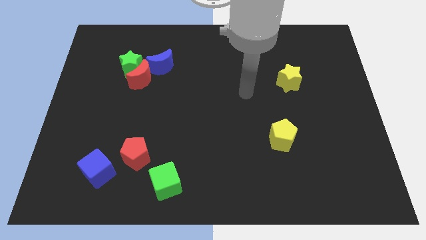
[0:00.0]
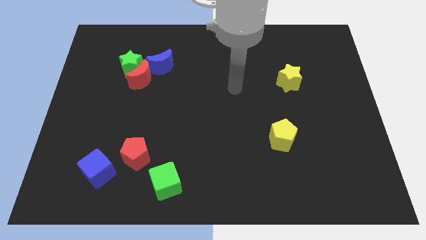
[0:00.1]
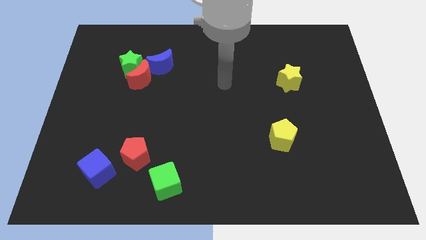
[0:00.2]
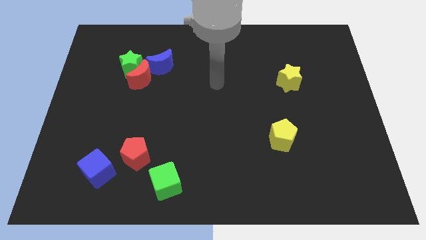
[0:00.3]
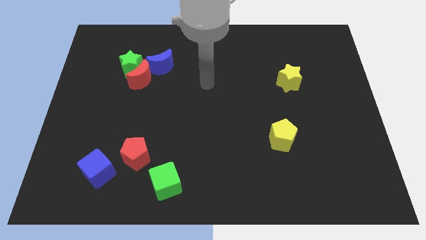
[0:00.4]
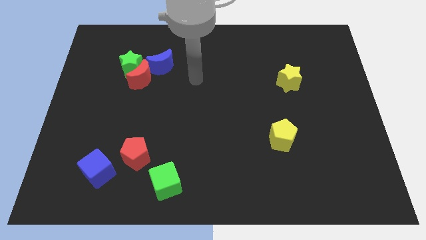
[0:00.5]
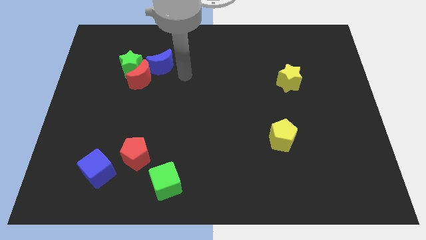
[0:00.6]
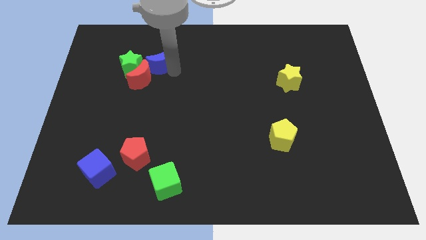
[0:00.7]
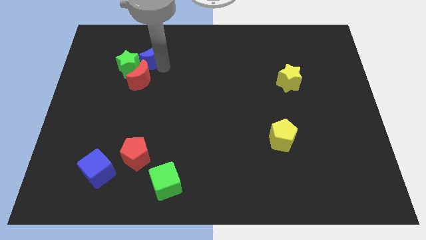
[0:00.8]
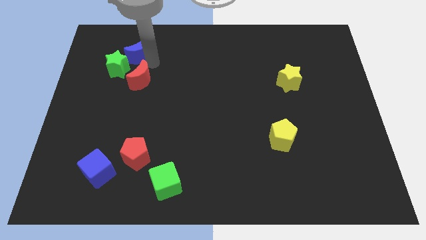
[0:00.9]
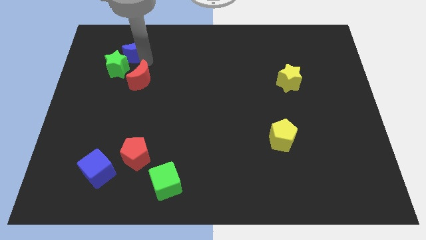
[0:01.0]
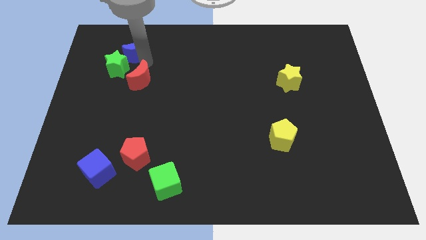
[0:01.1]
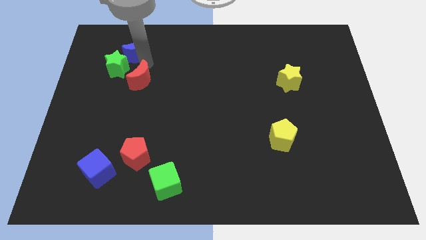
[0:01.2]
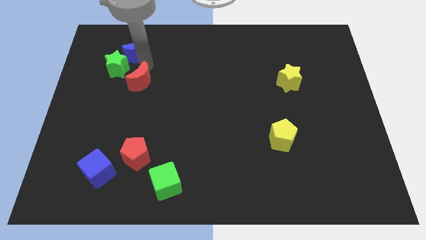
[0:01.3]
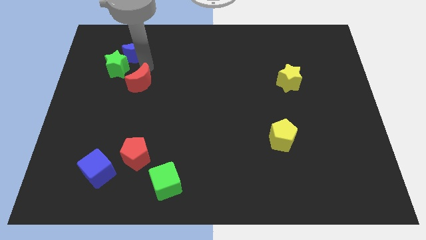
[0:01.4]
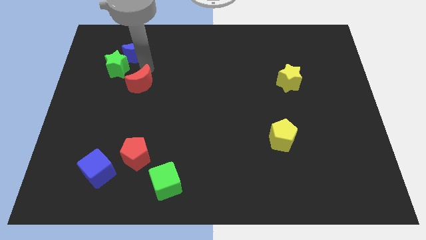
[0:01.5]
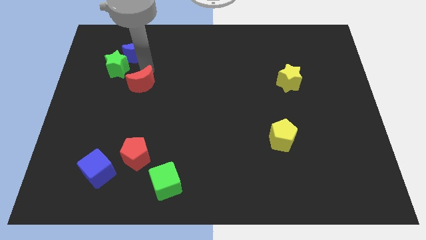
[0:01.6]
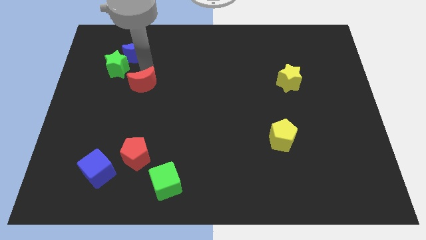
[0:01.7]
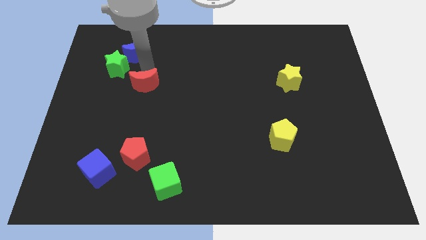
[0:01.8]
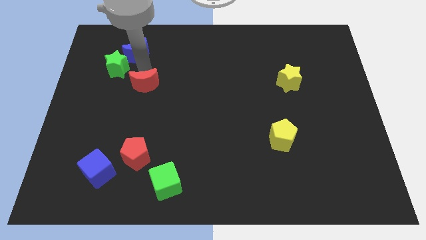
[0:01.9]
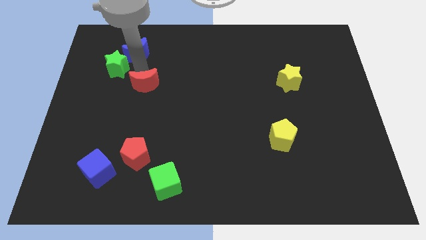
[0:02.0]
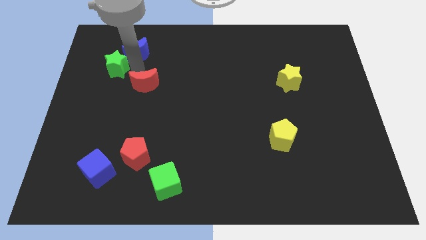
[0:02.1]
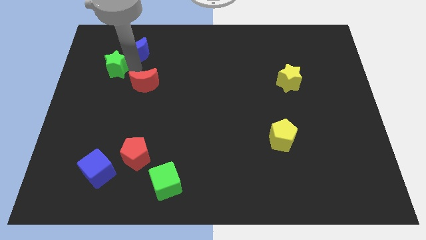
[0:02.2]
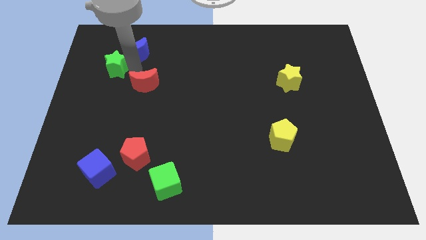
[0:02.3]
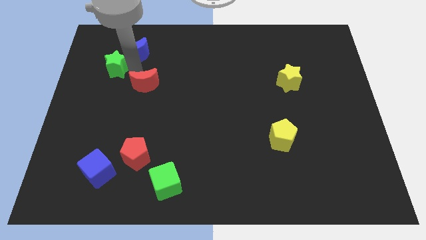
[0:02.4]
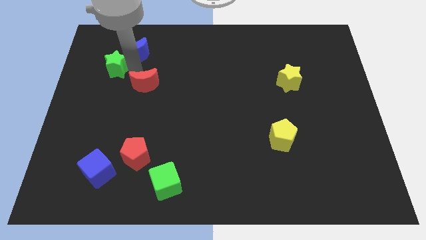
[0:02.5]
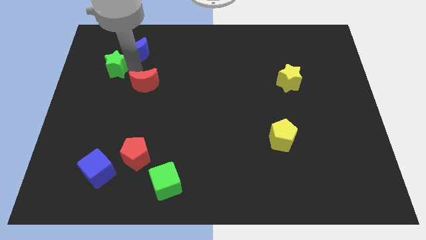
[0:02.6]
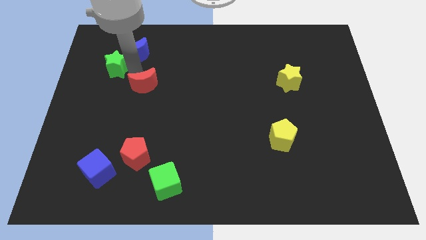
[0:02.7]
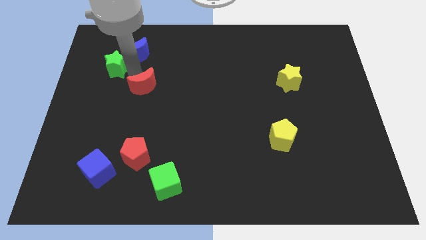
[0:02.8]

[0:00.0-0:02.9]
move the red moon away from the green star and blue moon

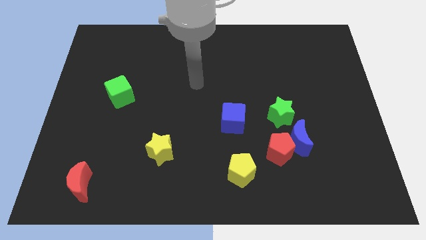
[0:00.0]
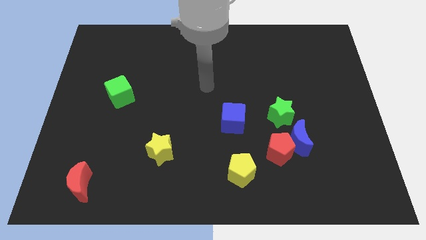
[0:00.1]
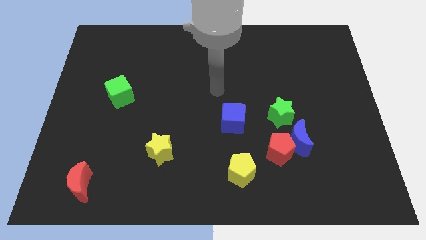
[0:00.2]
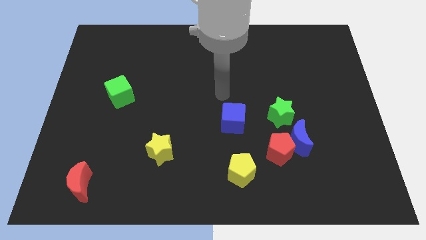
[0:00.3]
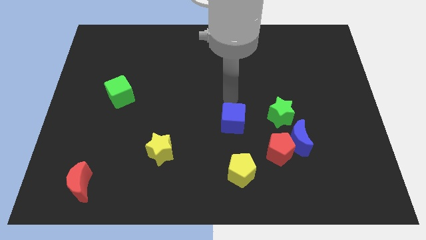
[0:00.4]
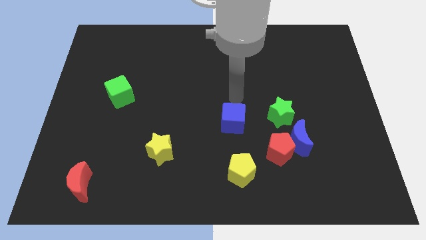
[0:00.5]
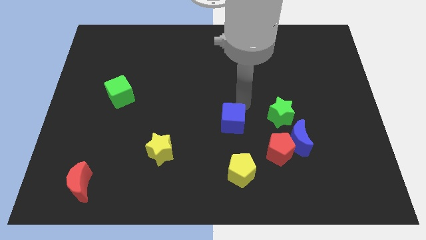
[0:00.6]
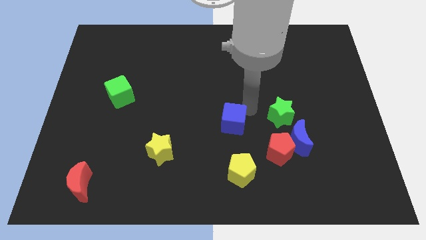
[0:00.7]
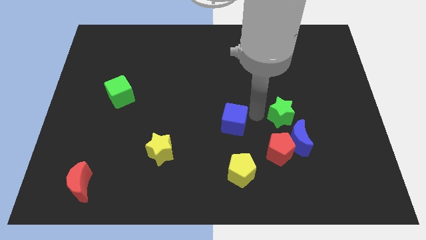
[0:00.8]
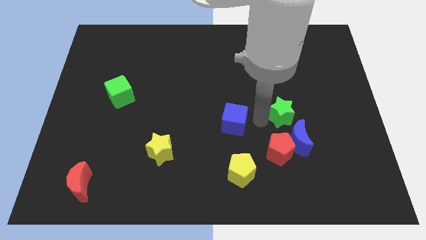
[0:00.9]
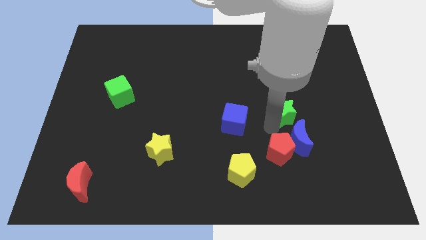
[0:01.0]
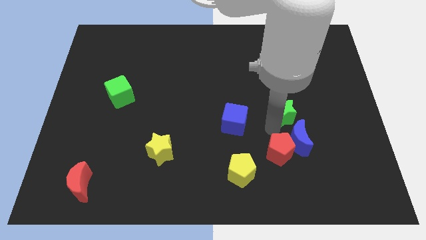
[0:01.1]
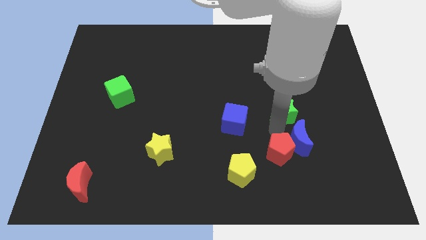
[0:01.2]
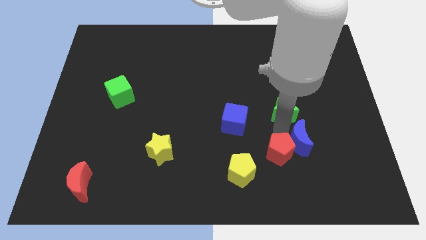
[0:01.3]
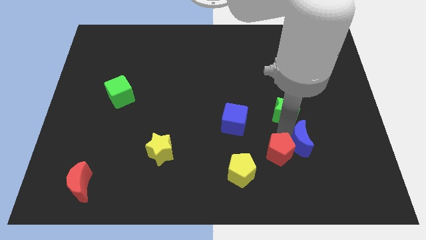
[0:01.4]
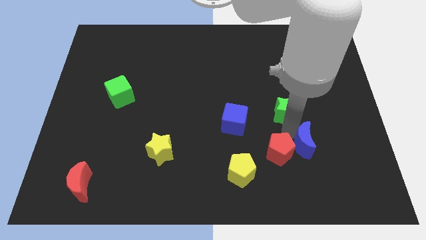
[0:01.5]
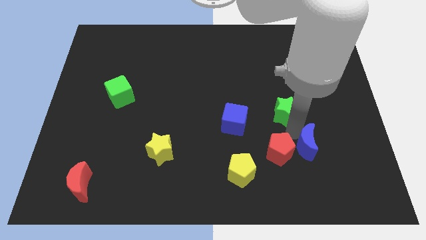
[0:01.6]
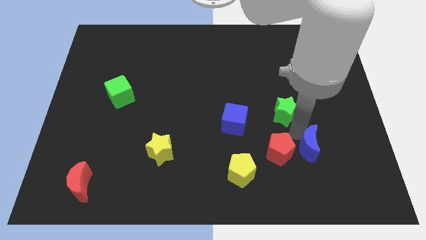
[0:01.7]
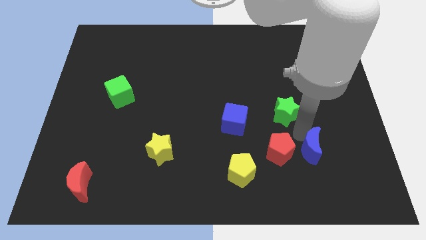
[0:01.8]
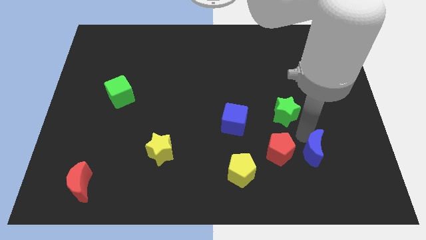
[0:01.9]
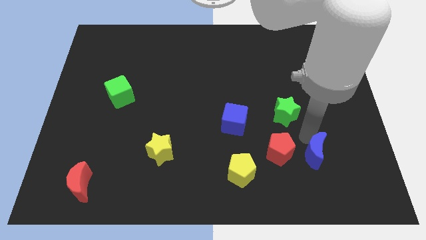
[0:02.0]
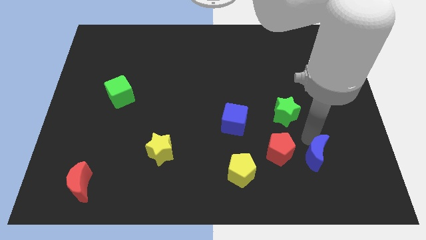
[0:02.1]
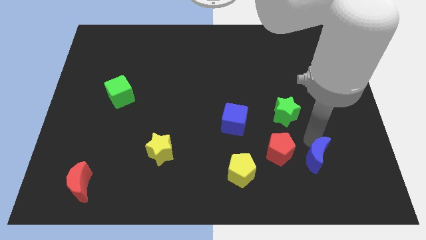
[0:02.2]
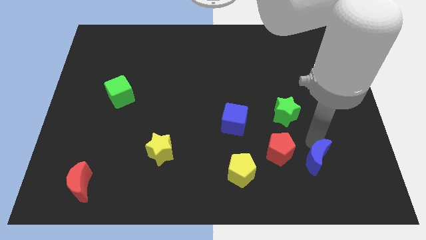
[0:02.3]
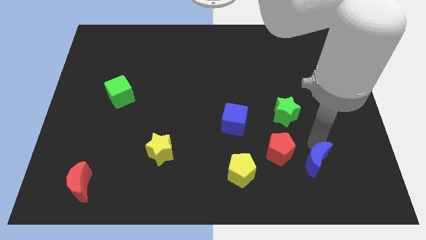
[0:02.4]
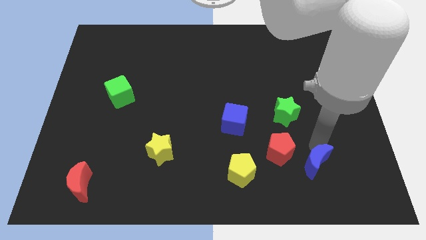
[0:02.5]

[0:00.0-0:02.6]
separate the blue moon from the red pentagon and green star

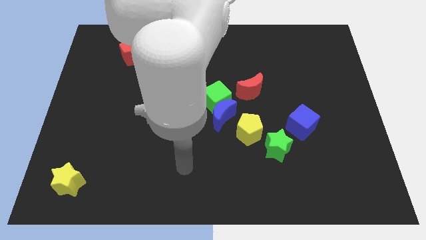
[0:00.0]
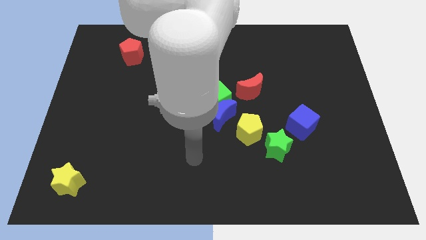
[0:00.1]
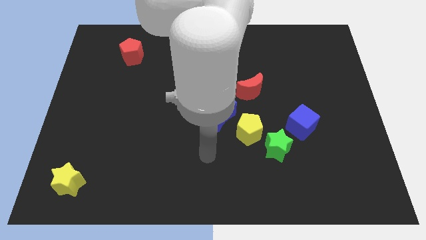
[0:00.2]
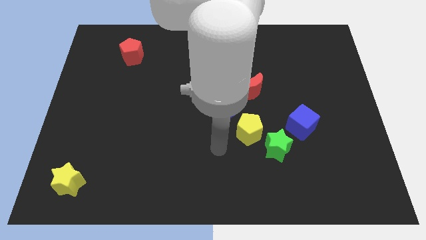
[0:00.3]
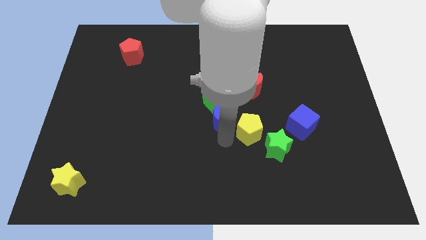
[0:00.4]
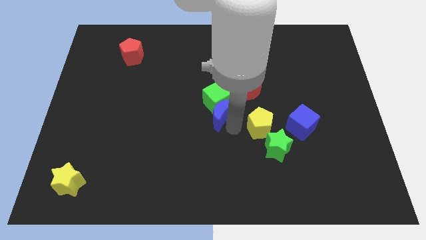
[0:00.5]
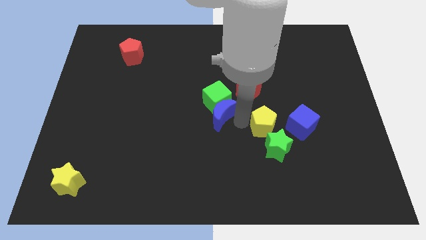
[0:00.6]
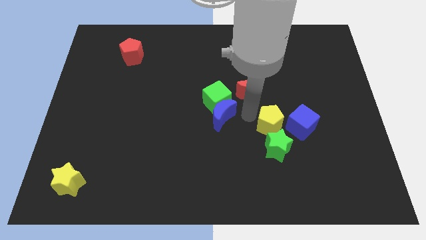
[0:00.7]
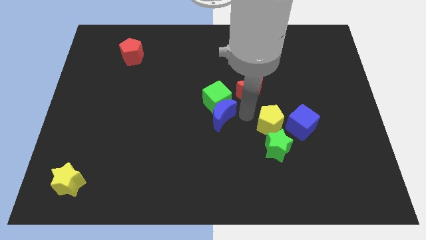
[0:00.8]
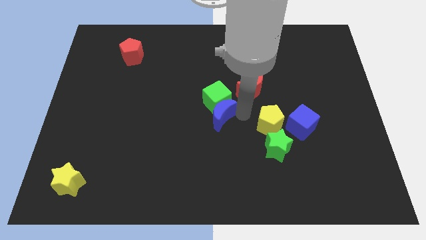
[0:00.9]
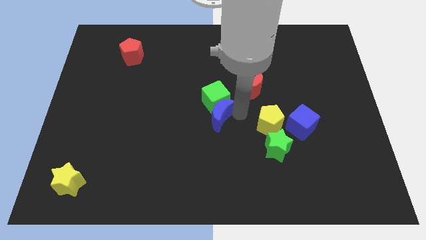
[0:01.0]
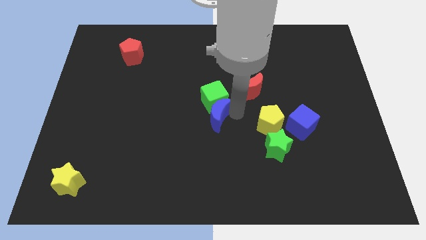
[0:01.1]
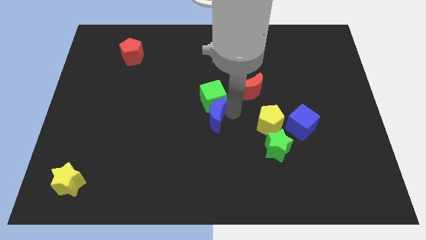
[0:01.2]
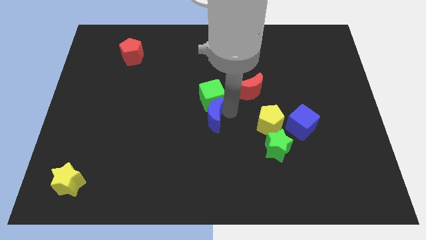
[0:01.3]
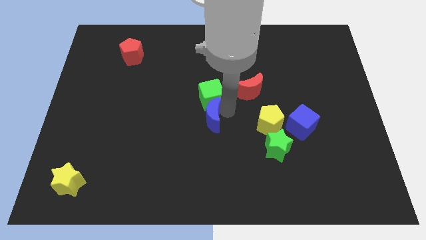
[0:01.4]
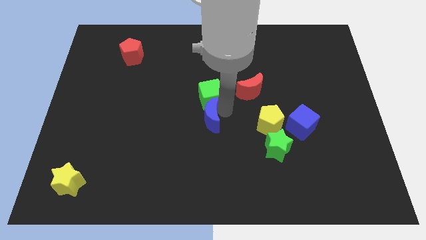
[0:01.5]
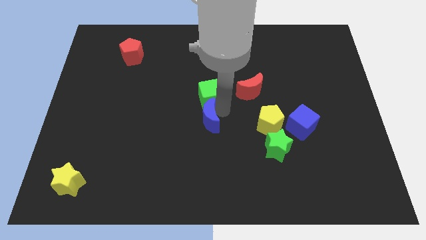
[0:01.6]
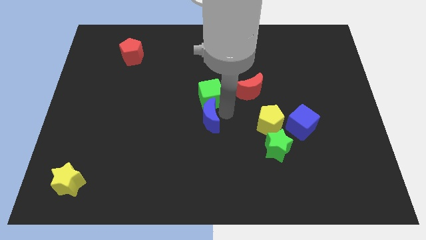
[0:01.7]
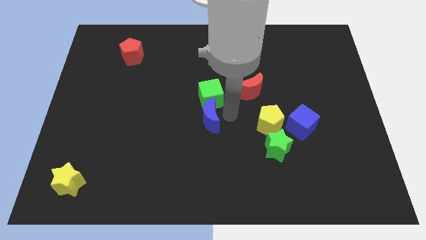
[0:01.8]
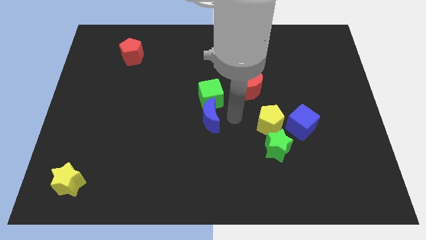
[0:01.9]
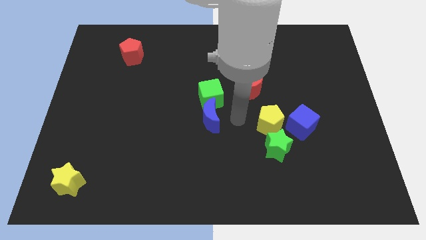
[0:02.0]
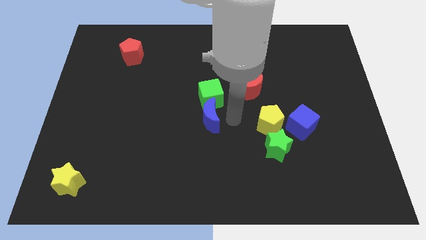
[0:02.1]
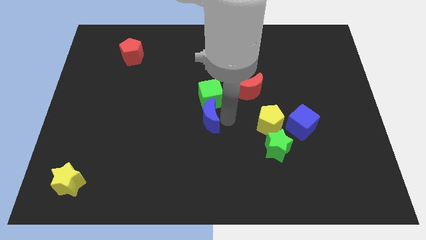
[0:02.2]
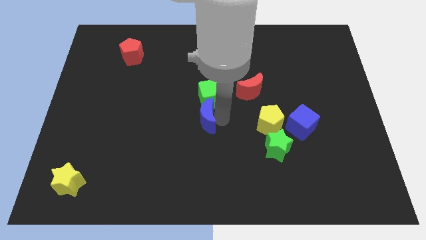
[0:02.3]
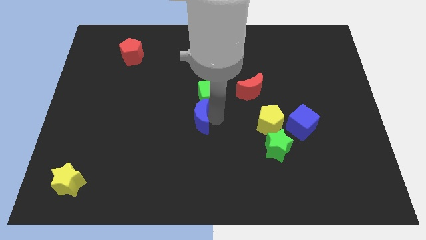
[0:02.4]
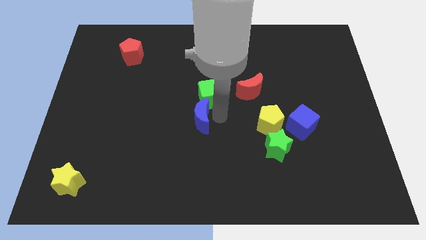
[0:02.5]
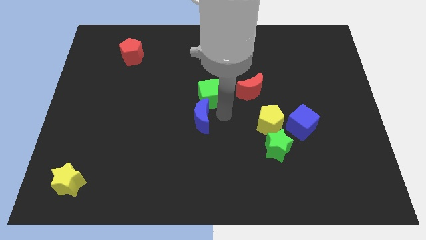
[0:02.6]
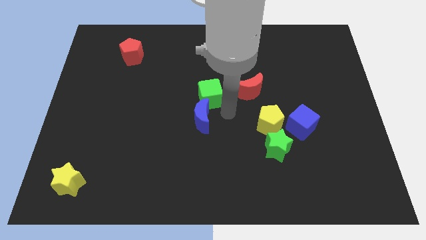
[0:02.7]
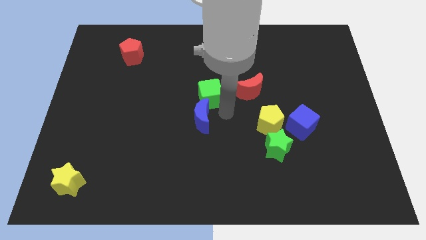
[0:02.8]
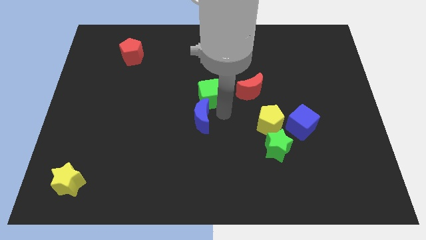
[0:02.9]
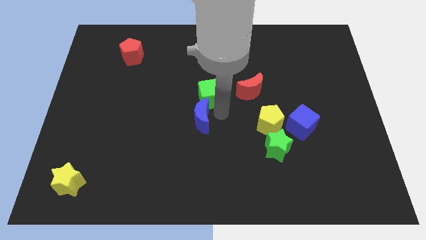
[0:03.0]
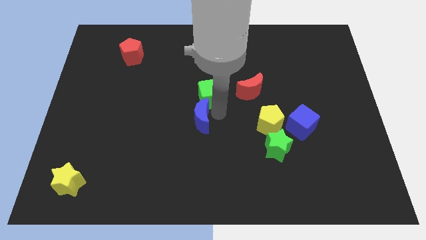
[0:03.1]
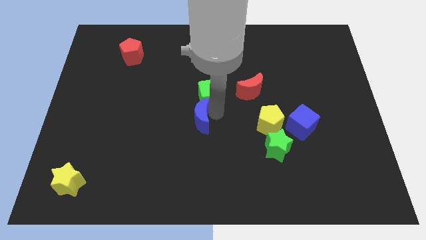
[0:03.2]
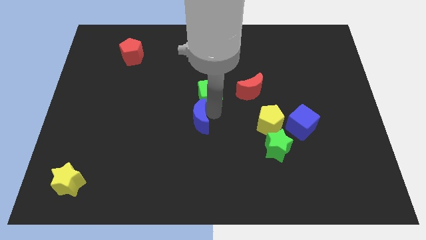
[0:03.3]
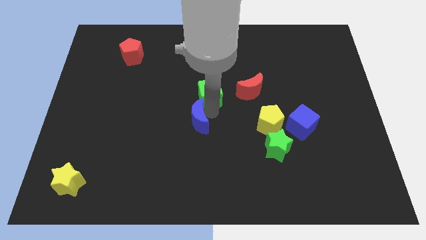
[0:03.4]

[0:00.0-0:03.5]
move the blue moon away from the green cube and yellow pentagon
